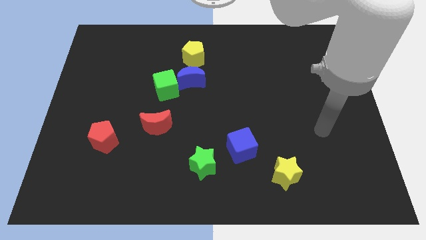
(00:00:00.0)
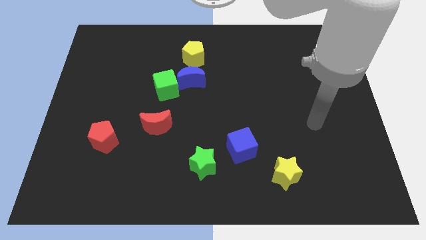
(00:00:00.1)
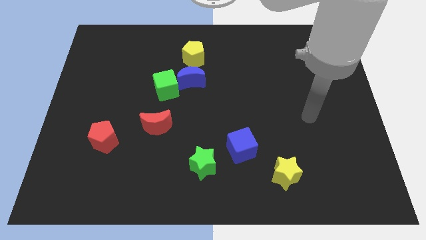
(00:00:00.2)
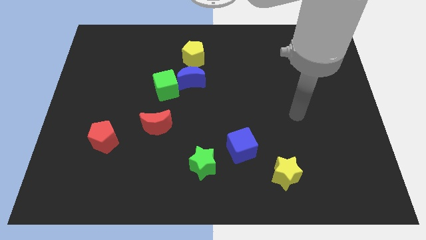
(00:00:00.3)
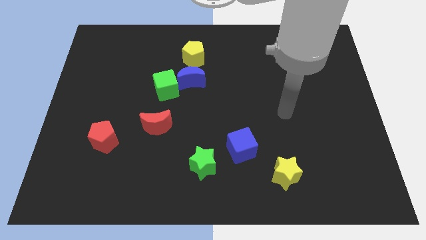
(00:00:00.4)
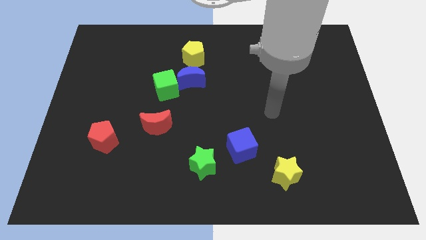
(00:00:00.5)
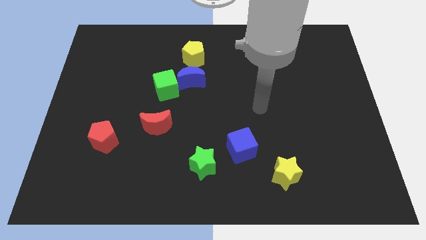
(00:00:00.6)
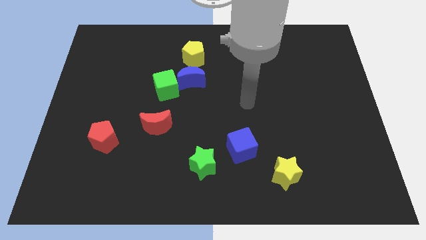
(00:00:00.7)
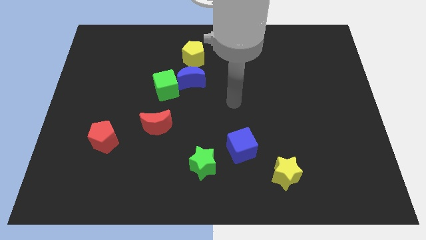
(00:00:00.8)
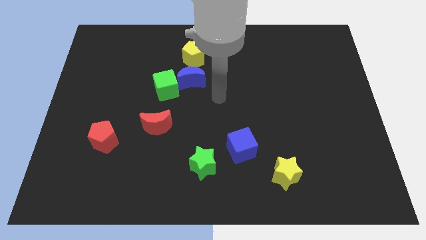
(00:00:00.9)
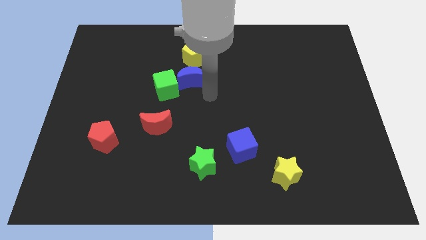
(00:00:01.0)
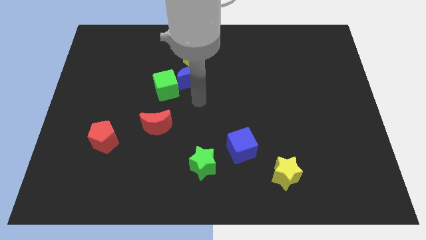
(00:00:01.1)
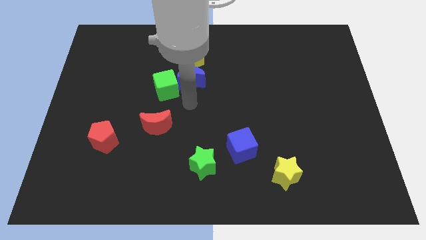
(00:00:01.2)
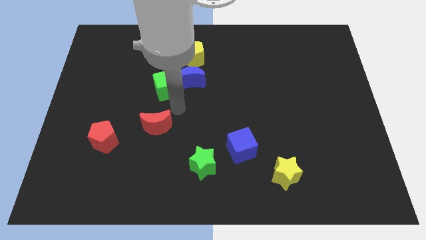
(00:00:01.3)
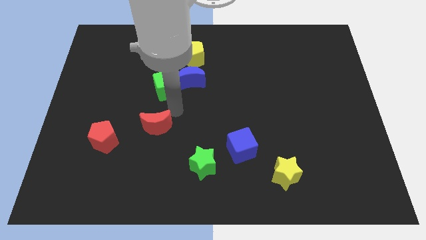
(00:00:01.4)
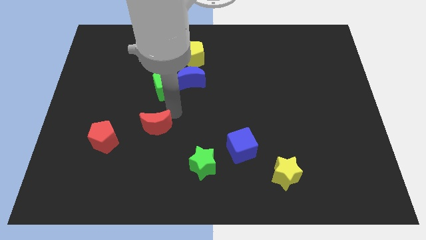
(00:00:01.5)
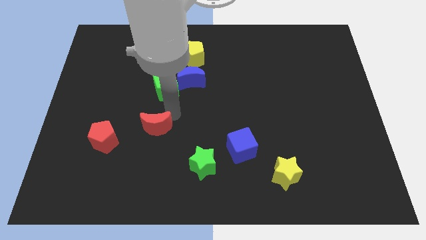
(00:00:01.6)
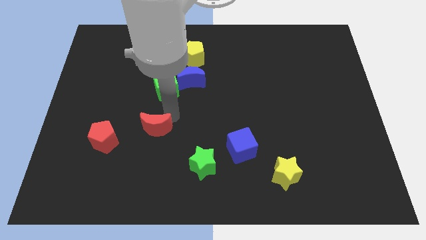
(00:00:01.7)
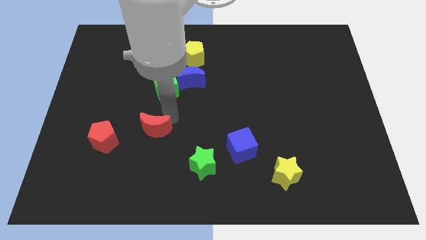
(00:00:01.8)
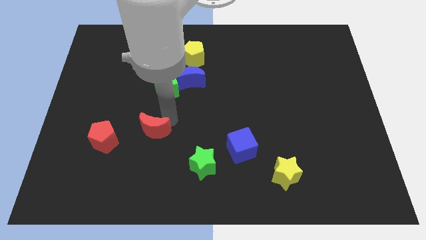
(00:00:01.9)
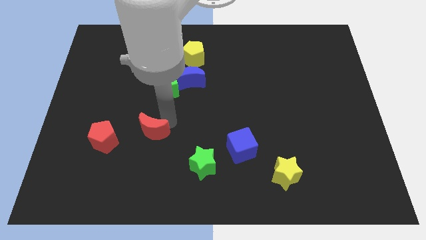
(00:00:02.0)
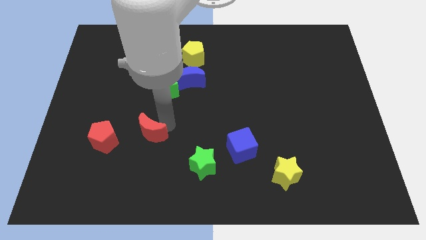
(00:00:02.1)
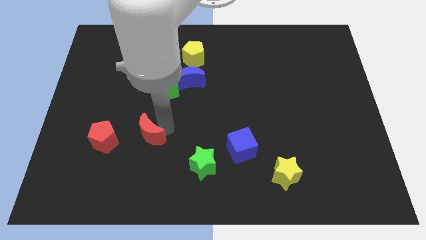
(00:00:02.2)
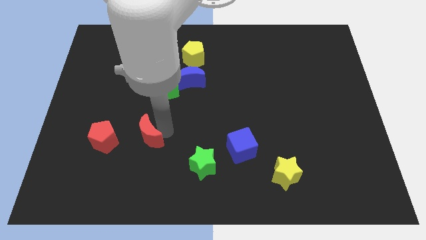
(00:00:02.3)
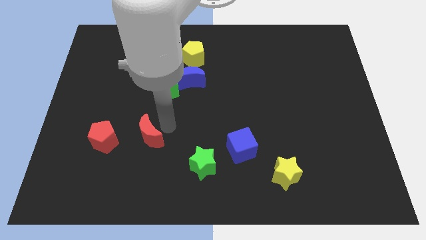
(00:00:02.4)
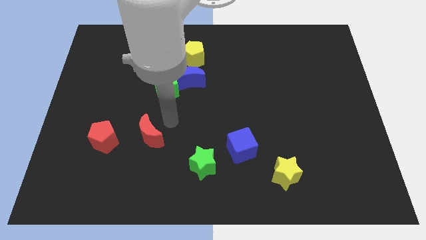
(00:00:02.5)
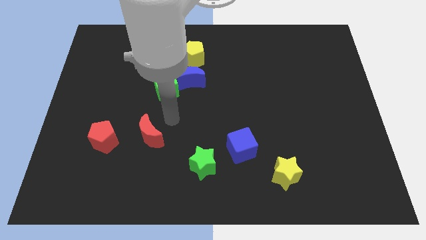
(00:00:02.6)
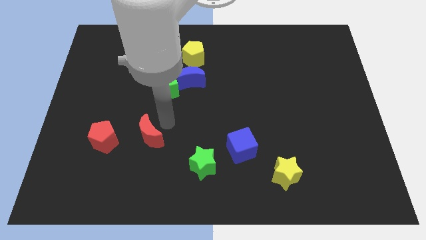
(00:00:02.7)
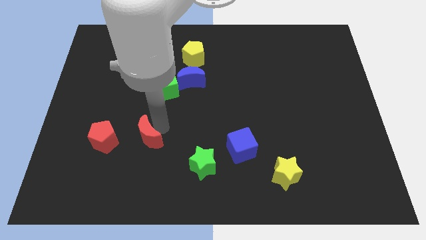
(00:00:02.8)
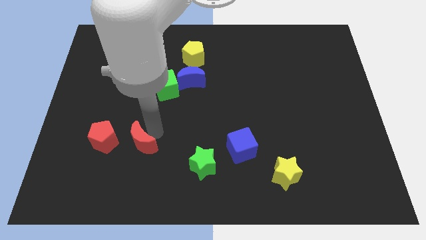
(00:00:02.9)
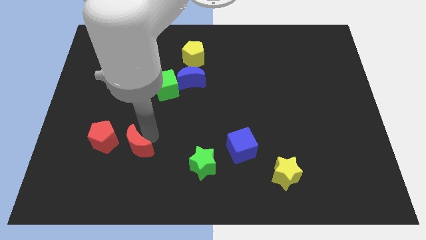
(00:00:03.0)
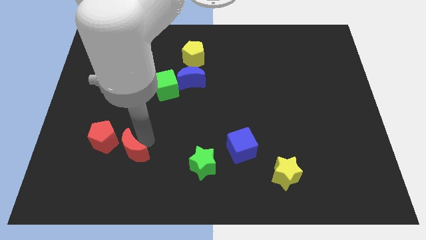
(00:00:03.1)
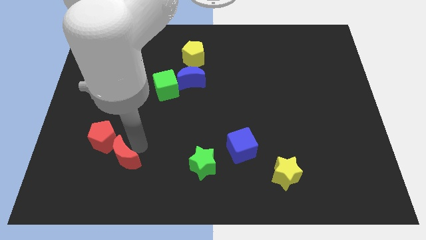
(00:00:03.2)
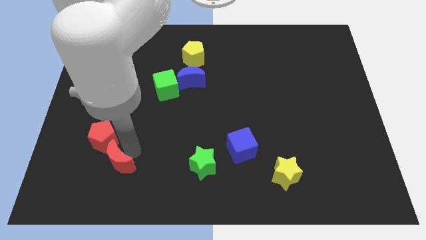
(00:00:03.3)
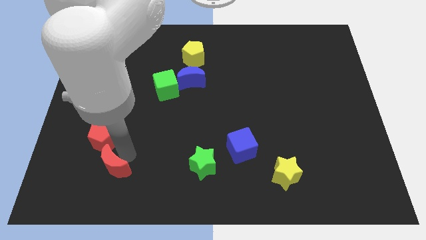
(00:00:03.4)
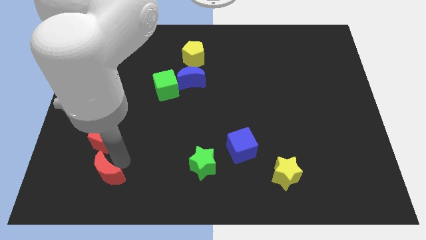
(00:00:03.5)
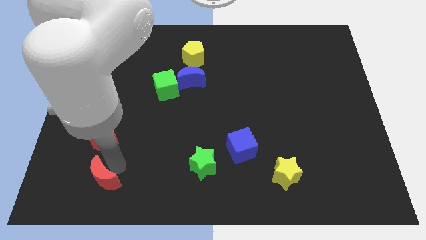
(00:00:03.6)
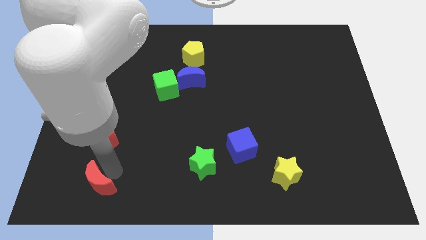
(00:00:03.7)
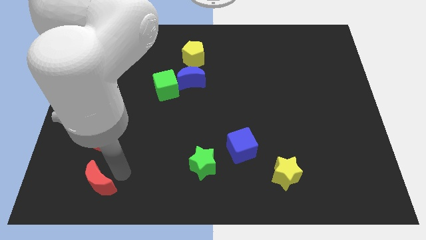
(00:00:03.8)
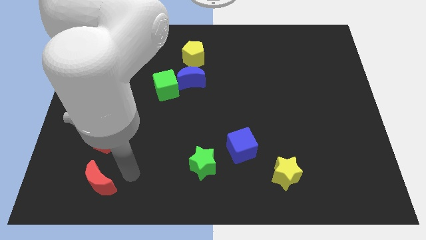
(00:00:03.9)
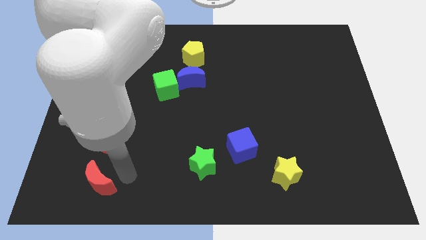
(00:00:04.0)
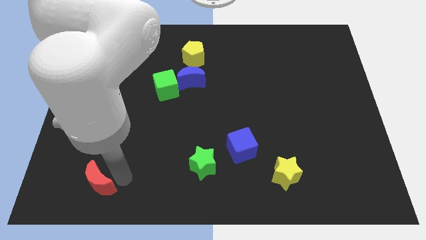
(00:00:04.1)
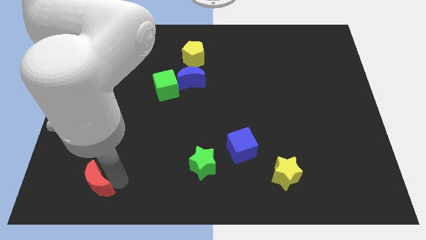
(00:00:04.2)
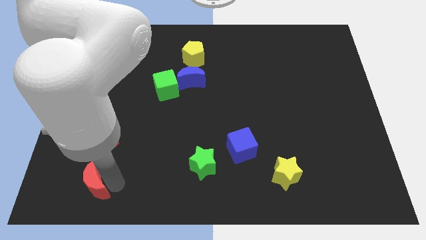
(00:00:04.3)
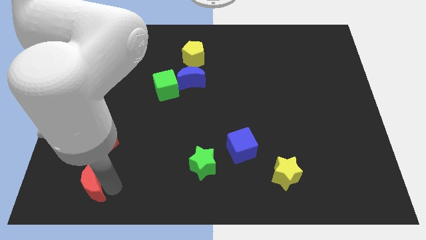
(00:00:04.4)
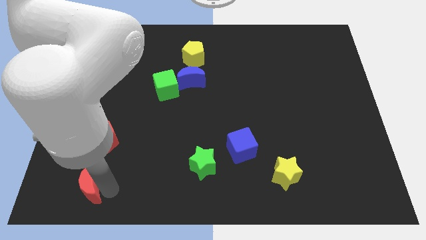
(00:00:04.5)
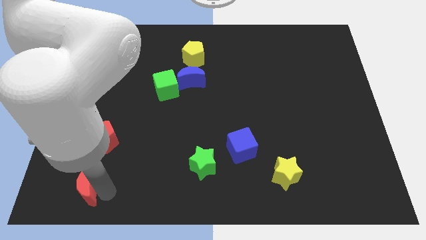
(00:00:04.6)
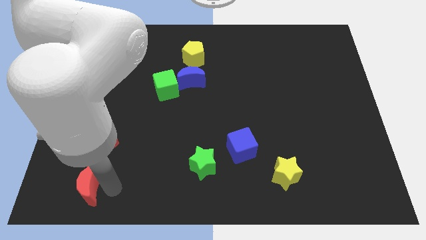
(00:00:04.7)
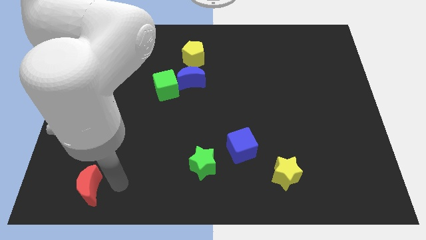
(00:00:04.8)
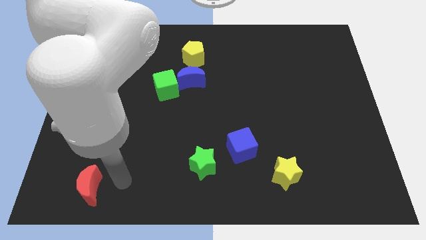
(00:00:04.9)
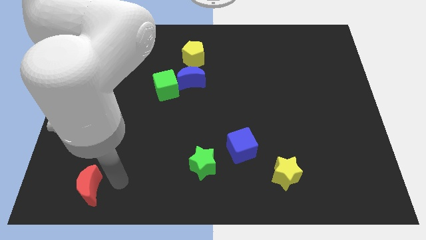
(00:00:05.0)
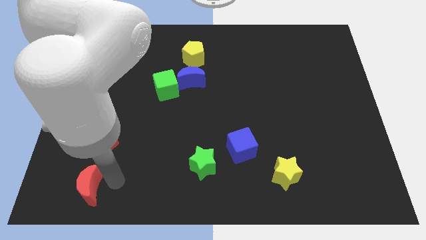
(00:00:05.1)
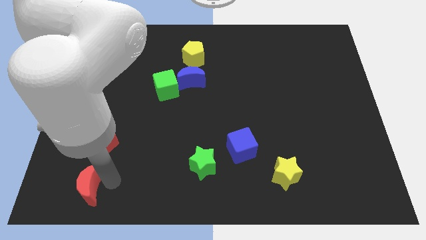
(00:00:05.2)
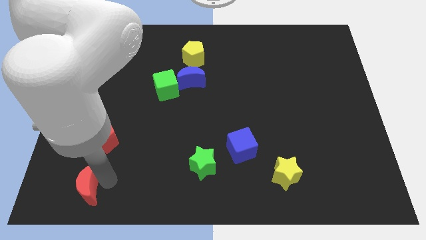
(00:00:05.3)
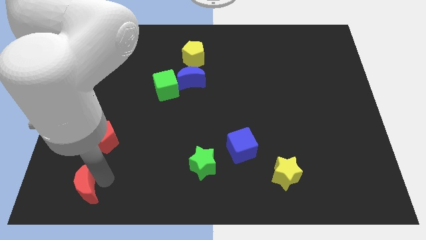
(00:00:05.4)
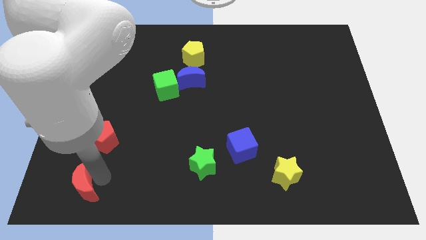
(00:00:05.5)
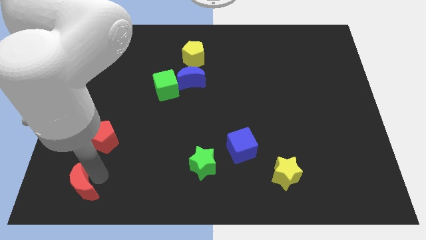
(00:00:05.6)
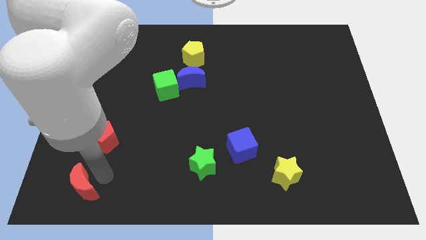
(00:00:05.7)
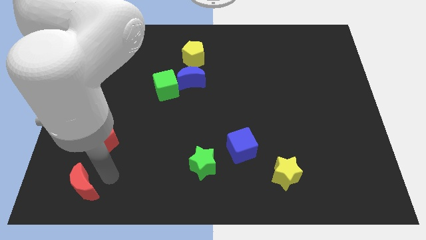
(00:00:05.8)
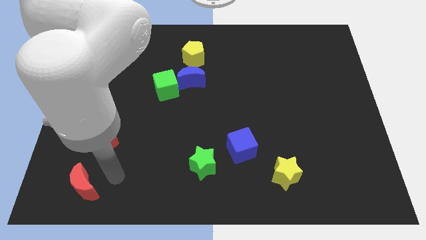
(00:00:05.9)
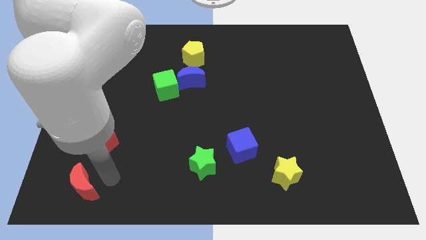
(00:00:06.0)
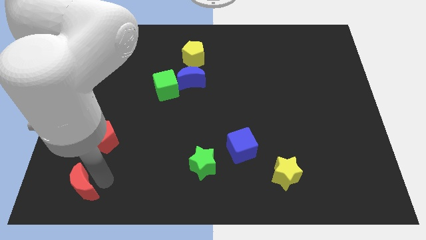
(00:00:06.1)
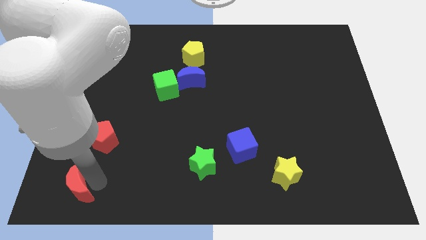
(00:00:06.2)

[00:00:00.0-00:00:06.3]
slide the red moon to the bottom left corner

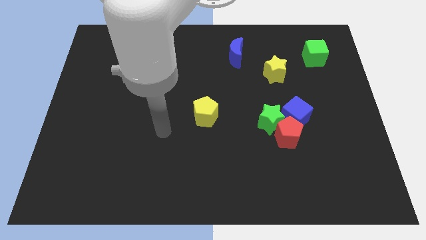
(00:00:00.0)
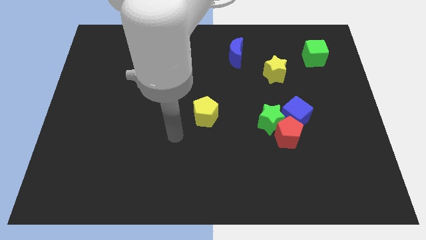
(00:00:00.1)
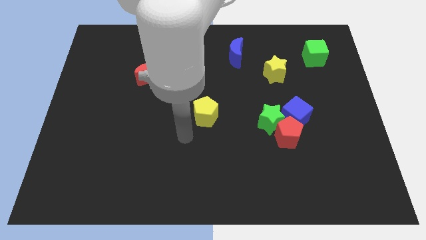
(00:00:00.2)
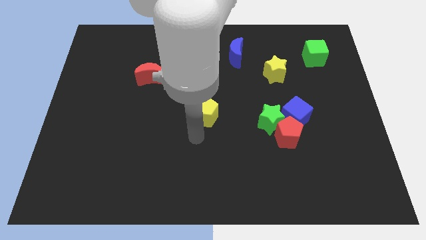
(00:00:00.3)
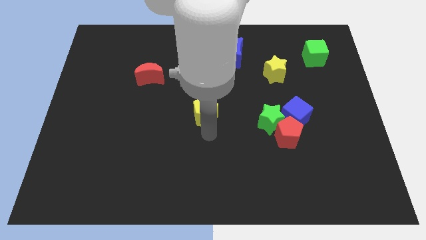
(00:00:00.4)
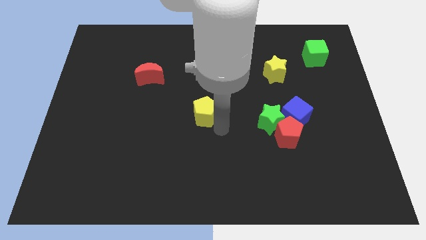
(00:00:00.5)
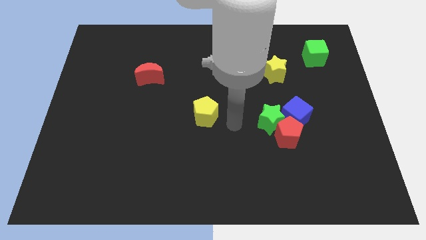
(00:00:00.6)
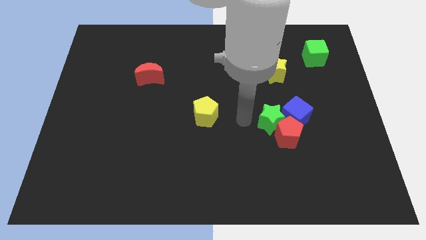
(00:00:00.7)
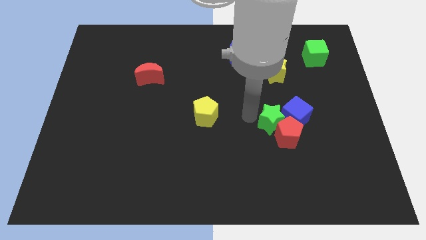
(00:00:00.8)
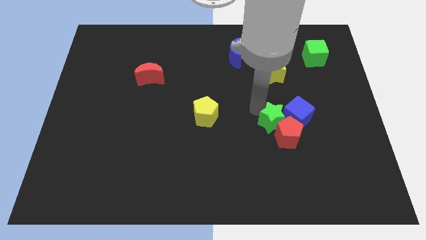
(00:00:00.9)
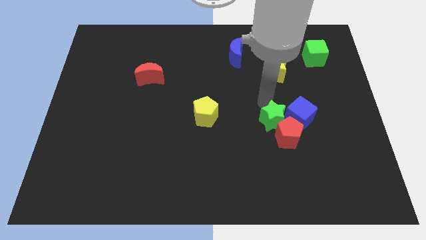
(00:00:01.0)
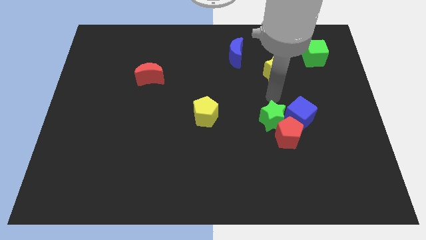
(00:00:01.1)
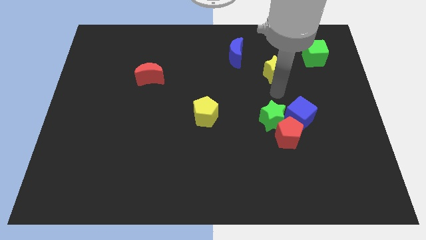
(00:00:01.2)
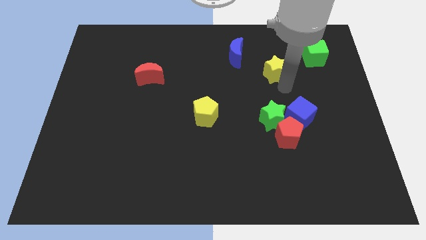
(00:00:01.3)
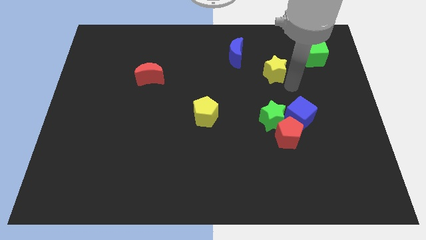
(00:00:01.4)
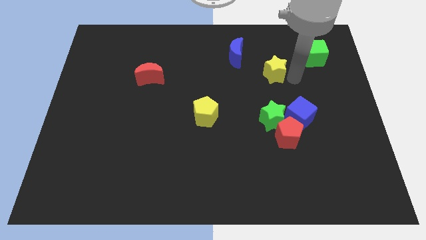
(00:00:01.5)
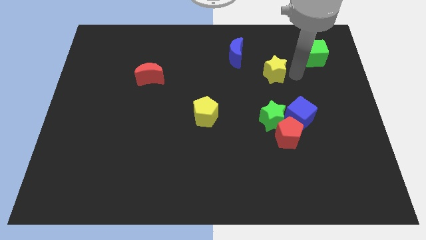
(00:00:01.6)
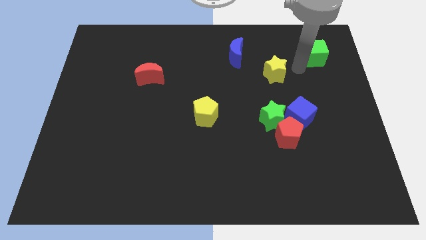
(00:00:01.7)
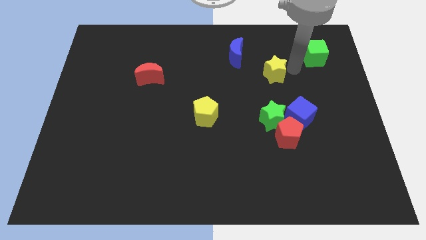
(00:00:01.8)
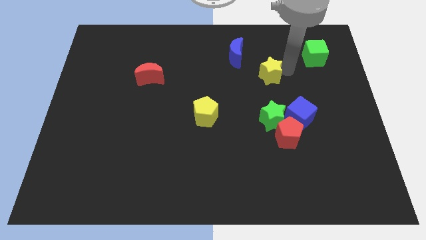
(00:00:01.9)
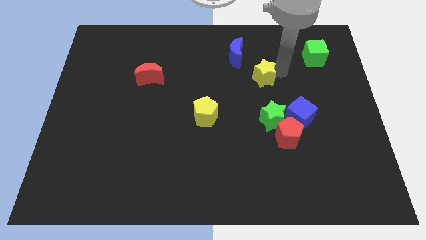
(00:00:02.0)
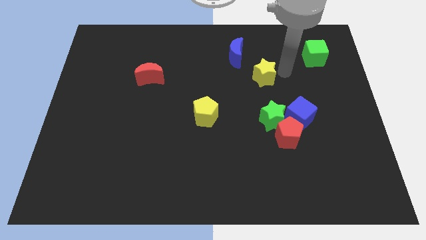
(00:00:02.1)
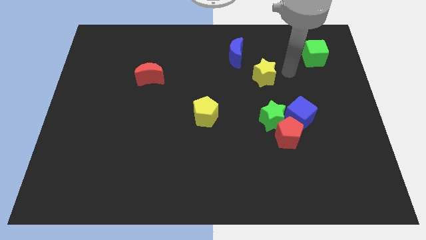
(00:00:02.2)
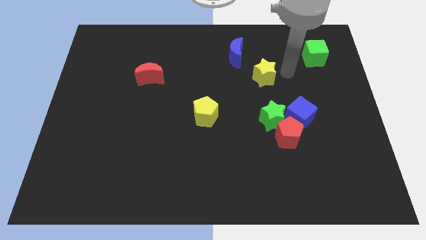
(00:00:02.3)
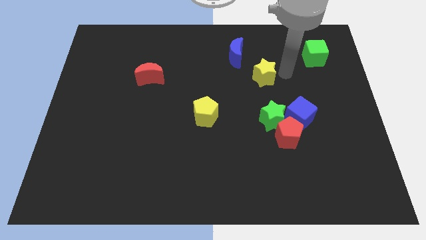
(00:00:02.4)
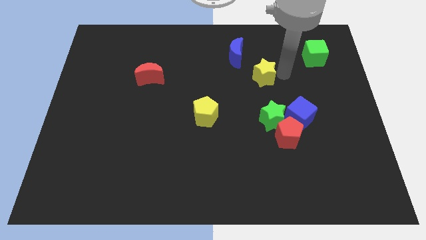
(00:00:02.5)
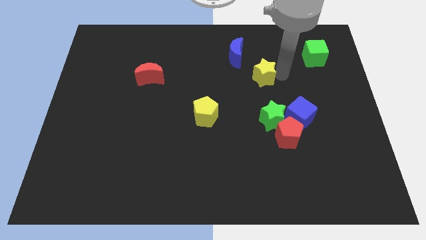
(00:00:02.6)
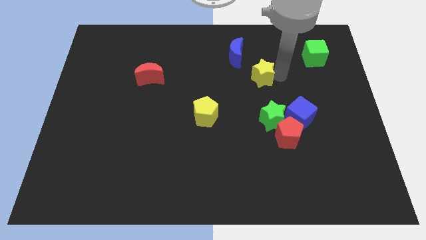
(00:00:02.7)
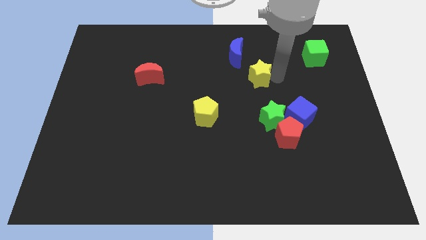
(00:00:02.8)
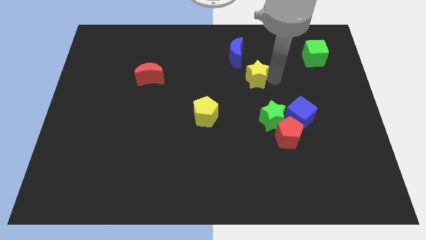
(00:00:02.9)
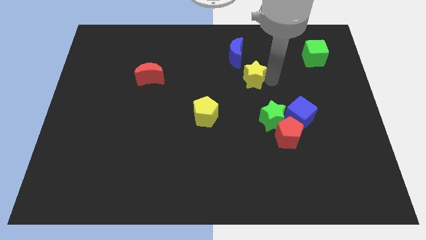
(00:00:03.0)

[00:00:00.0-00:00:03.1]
put the yellow star to the middle of the board
